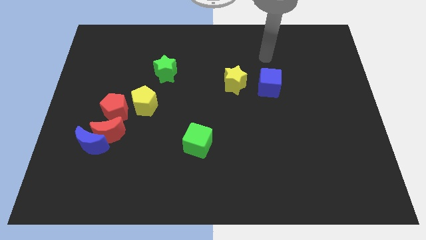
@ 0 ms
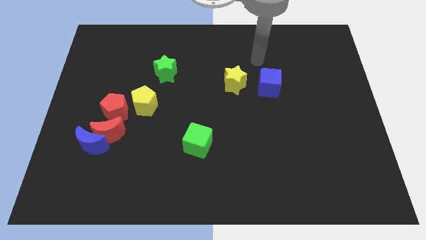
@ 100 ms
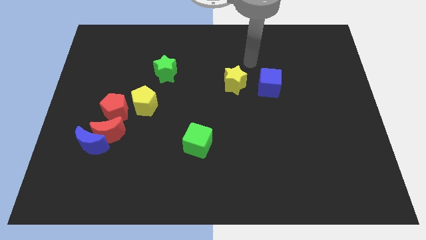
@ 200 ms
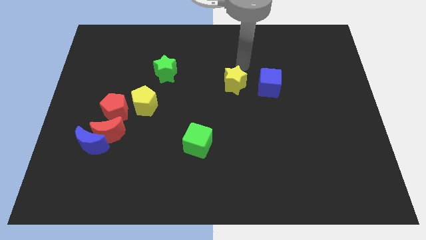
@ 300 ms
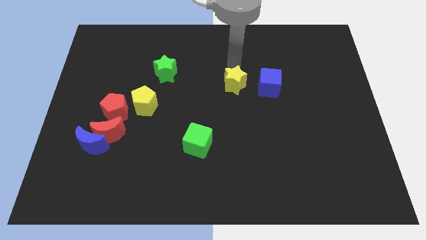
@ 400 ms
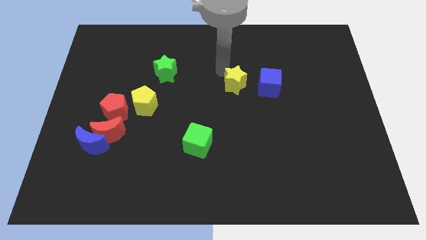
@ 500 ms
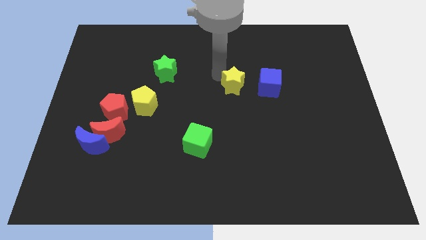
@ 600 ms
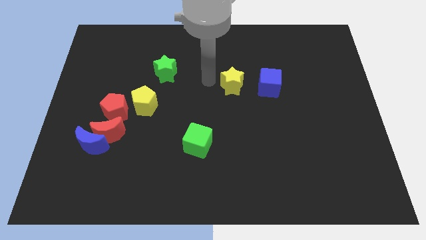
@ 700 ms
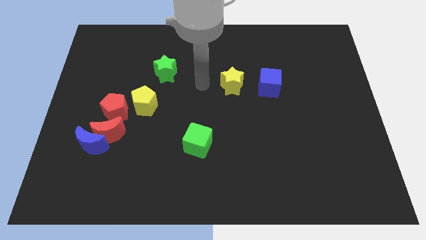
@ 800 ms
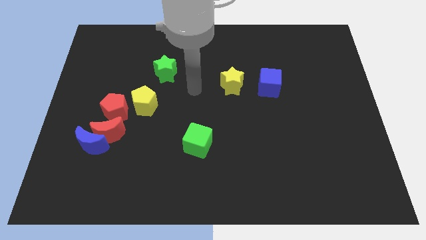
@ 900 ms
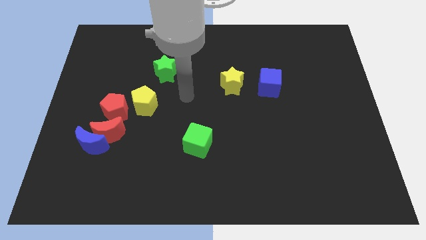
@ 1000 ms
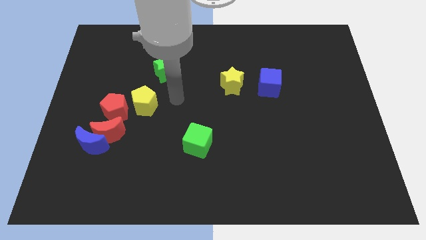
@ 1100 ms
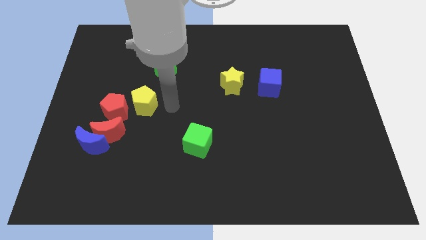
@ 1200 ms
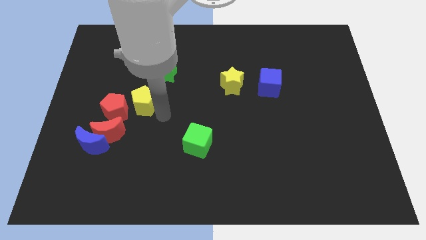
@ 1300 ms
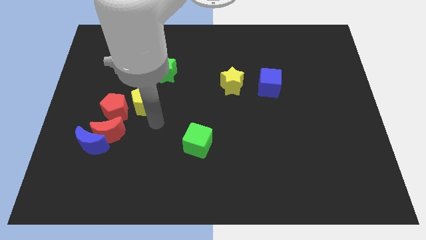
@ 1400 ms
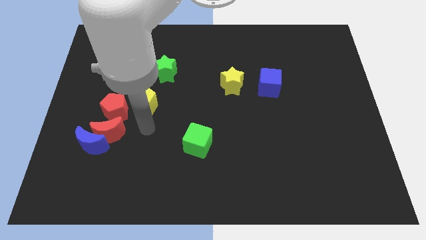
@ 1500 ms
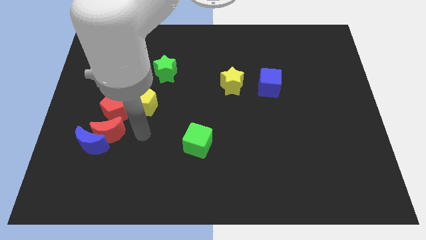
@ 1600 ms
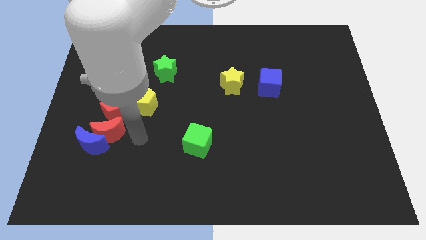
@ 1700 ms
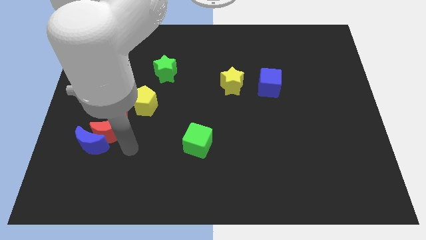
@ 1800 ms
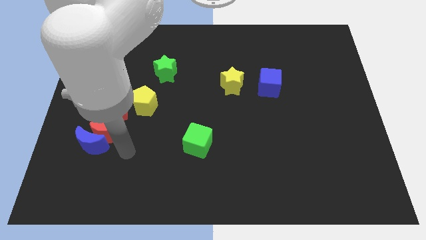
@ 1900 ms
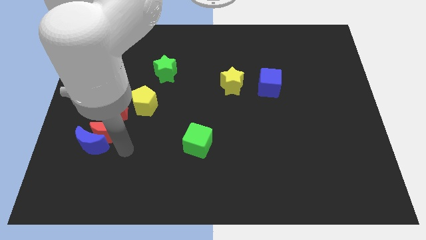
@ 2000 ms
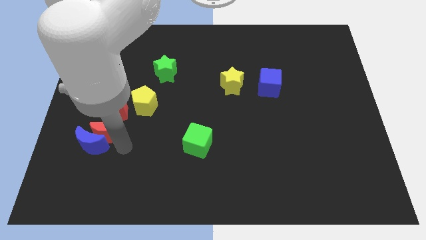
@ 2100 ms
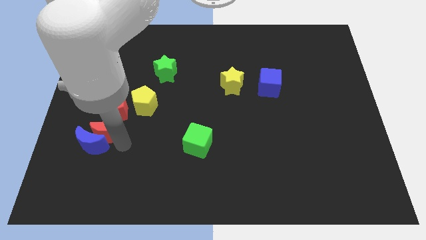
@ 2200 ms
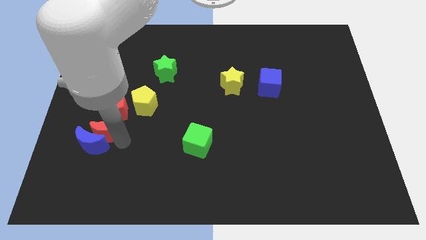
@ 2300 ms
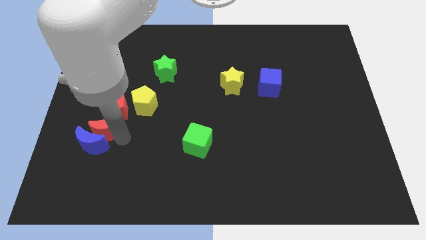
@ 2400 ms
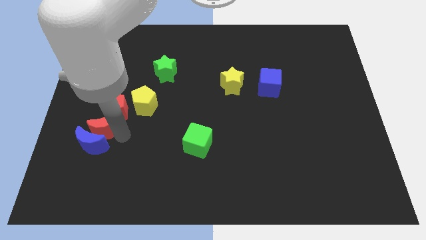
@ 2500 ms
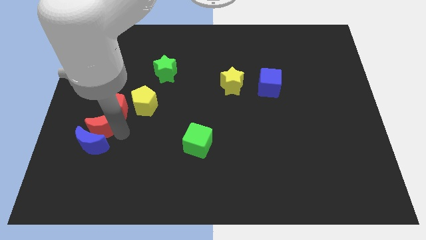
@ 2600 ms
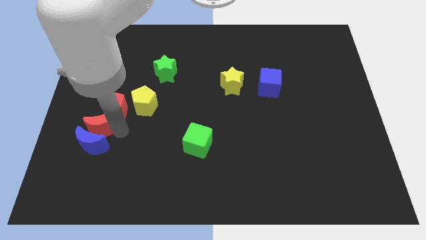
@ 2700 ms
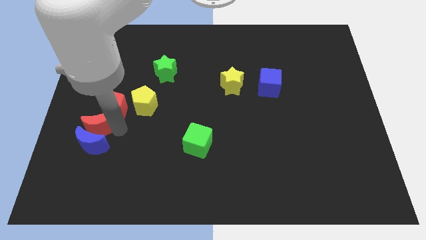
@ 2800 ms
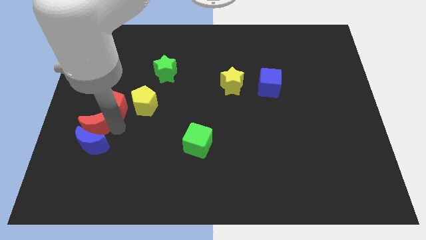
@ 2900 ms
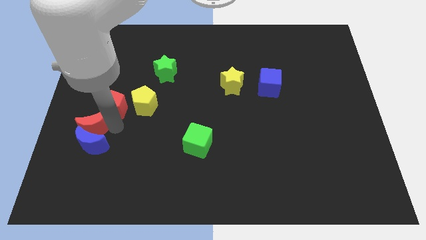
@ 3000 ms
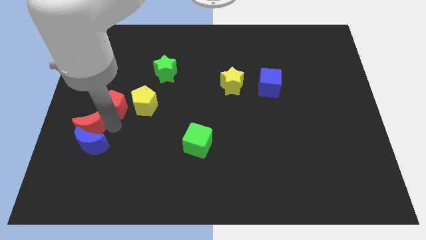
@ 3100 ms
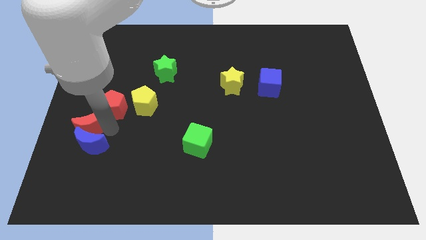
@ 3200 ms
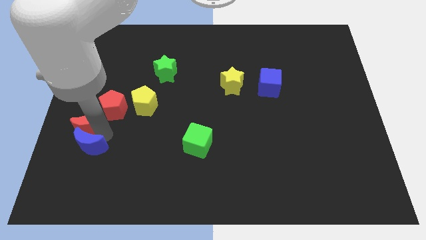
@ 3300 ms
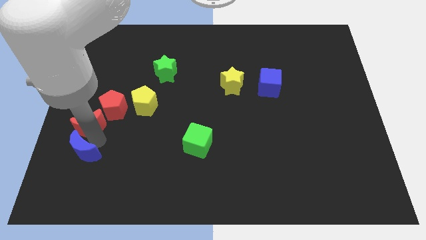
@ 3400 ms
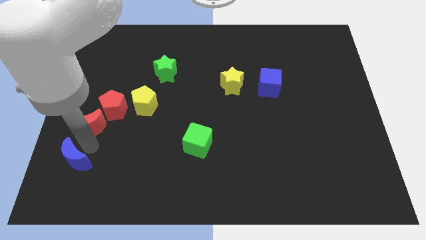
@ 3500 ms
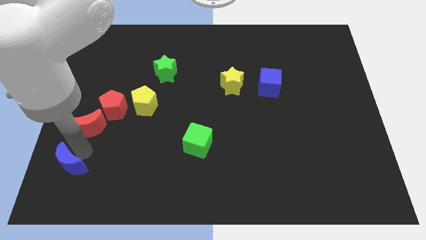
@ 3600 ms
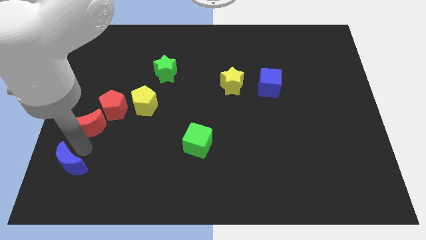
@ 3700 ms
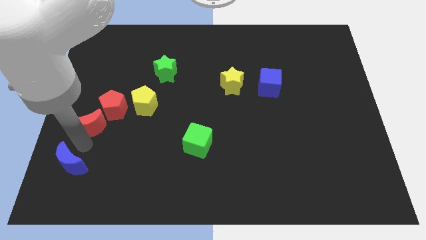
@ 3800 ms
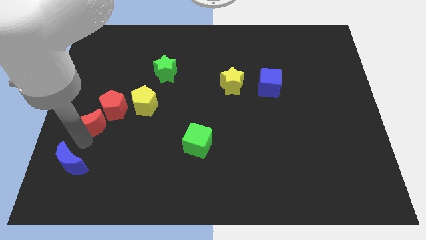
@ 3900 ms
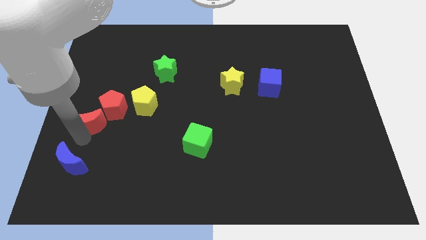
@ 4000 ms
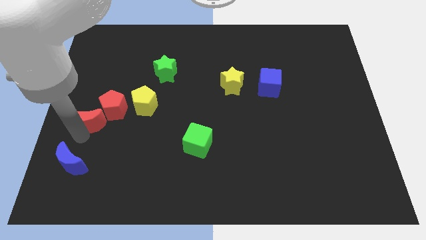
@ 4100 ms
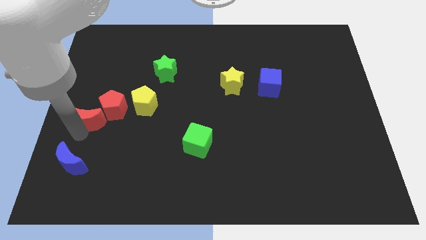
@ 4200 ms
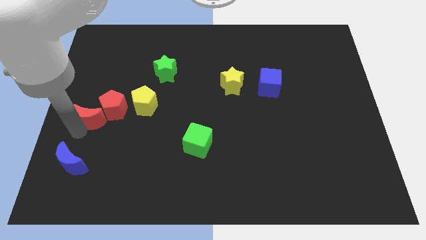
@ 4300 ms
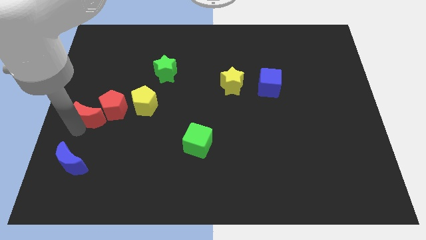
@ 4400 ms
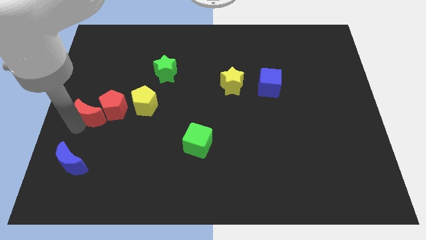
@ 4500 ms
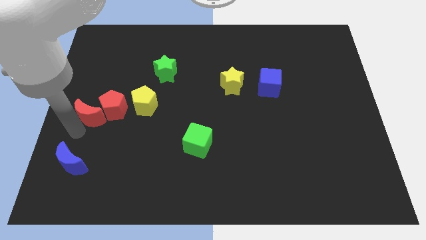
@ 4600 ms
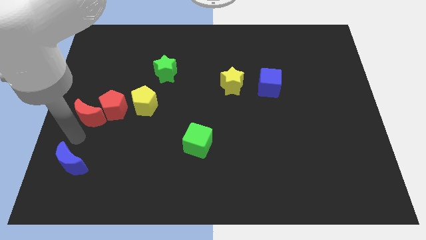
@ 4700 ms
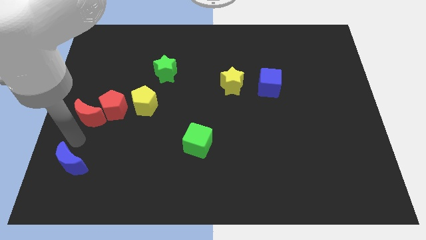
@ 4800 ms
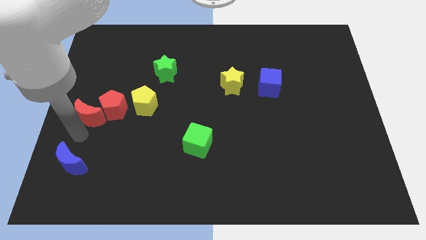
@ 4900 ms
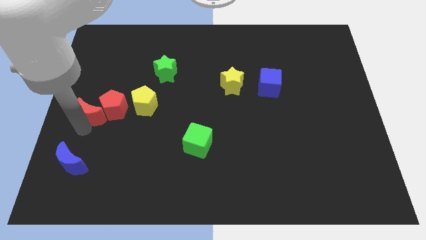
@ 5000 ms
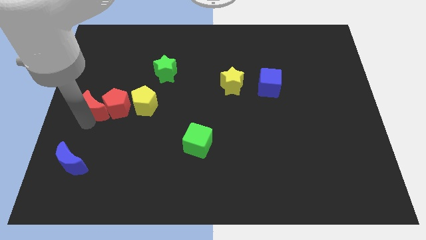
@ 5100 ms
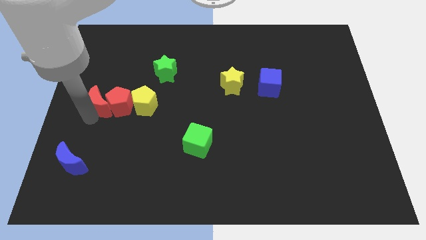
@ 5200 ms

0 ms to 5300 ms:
slightly slide the red moon up

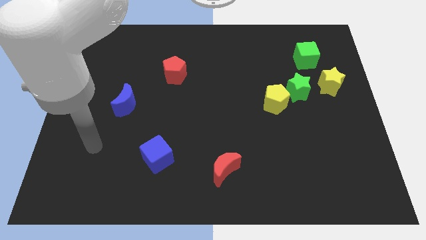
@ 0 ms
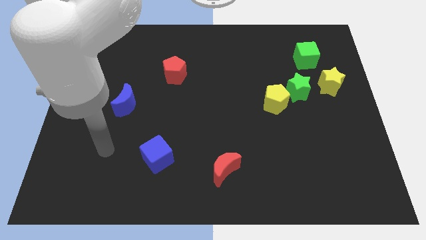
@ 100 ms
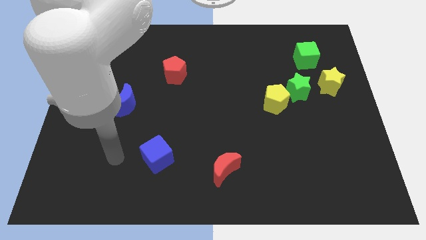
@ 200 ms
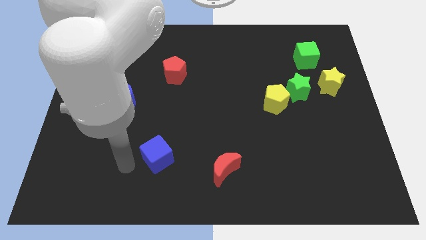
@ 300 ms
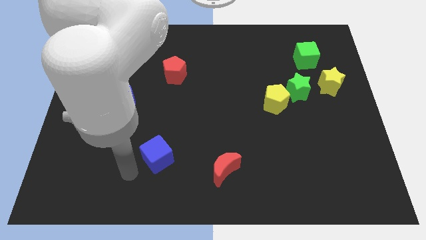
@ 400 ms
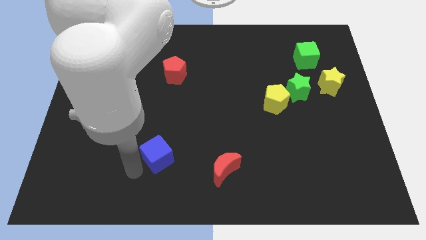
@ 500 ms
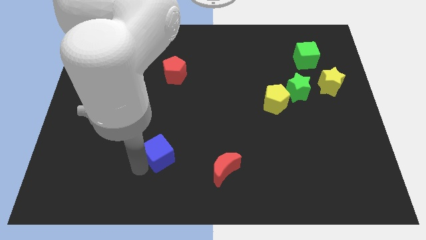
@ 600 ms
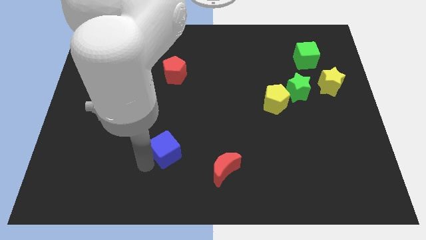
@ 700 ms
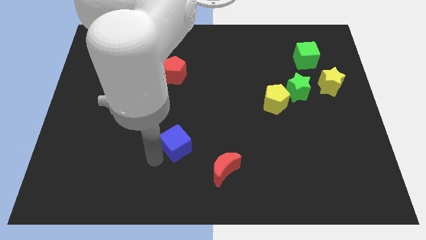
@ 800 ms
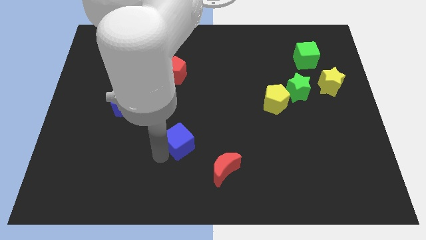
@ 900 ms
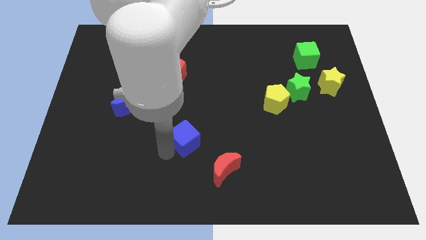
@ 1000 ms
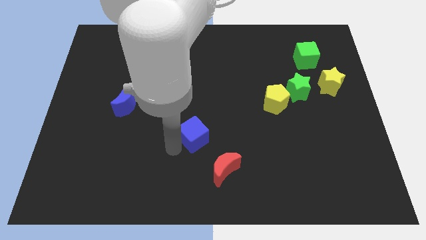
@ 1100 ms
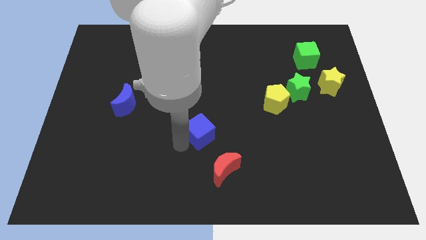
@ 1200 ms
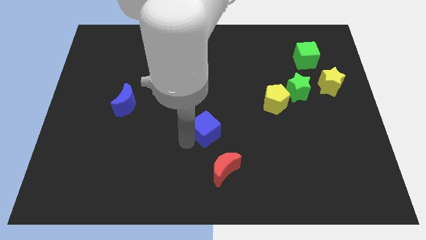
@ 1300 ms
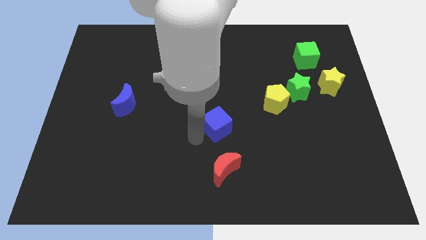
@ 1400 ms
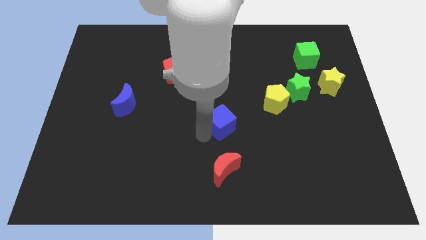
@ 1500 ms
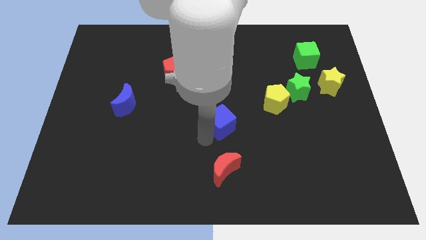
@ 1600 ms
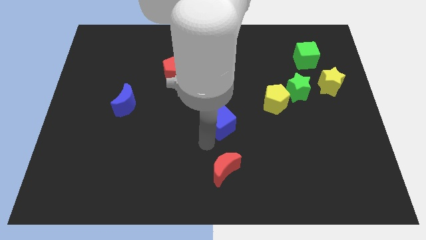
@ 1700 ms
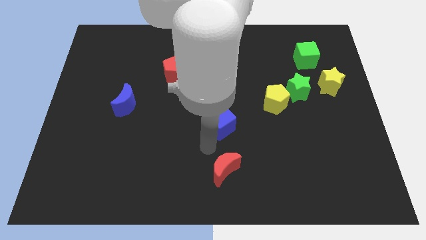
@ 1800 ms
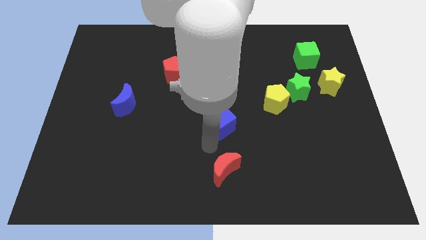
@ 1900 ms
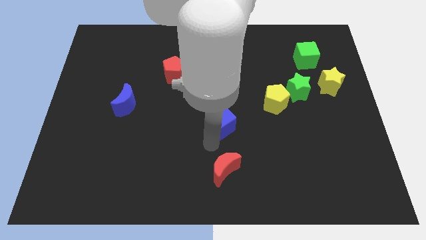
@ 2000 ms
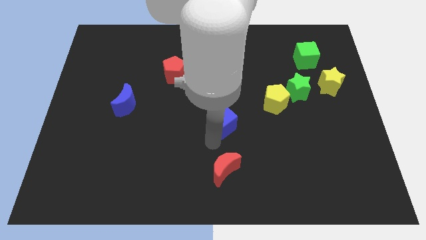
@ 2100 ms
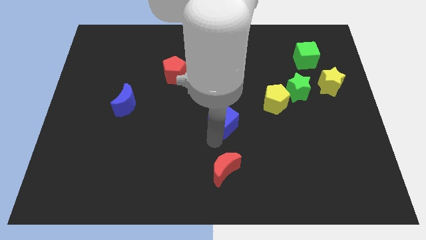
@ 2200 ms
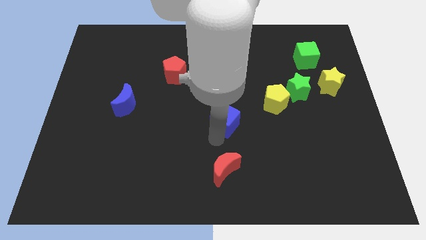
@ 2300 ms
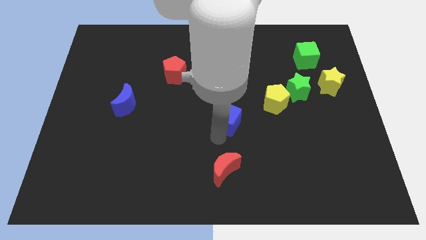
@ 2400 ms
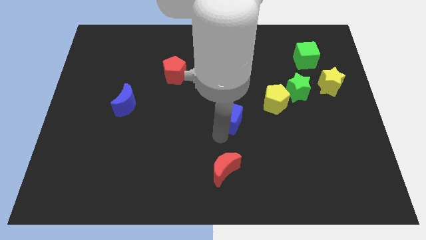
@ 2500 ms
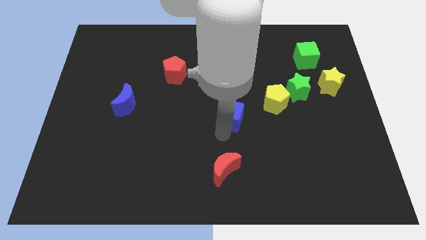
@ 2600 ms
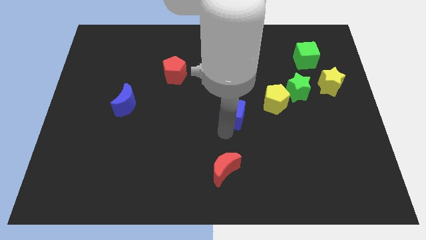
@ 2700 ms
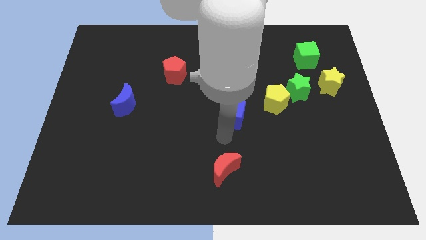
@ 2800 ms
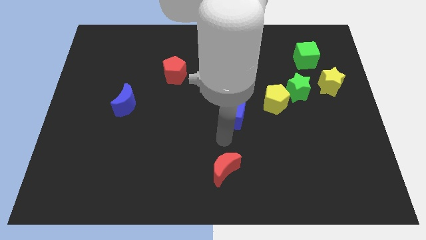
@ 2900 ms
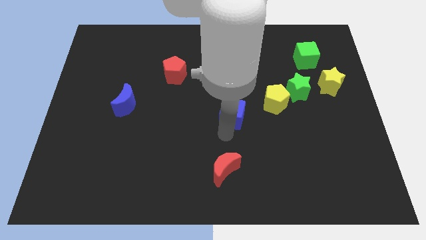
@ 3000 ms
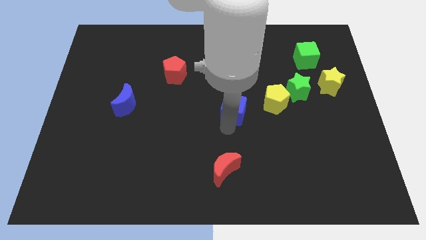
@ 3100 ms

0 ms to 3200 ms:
move the blue cube upwards and right
